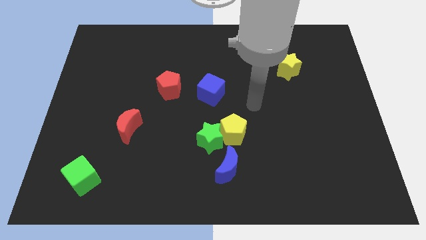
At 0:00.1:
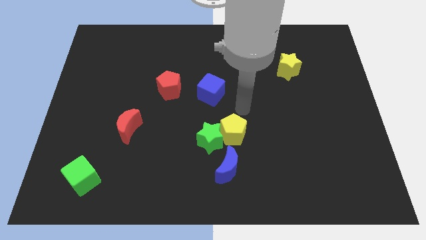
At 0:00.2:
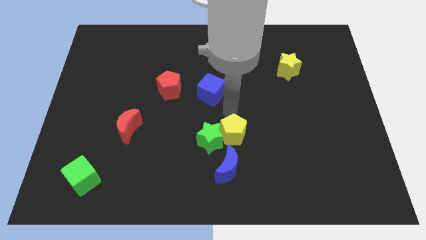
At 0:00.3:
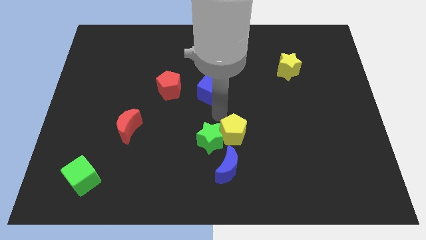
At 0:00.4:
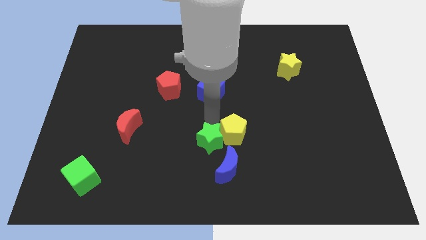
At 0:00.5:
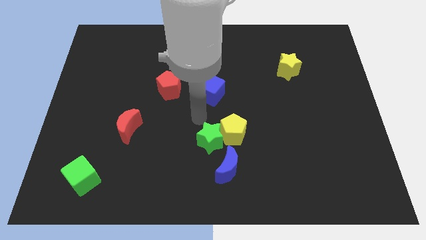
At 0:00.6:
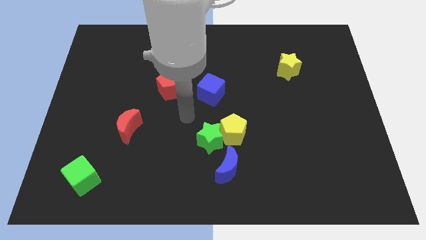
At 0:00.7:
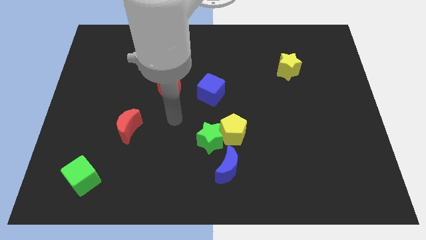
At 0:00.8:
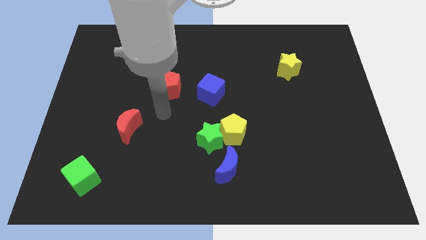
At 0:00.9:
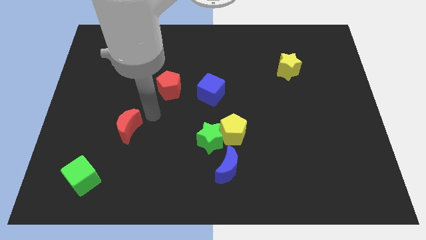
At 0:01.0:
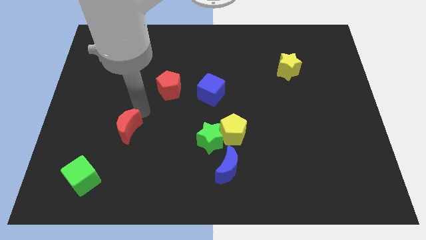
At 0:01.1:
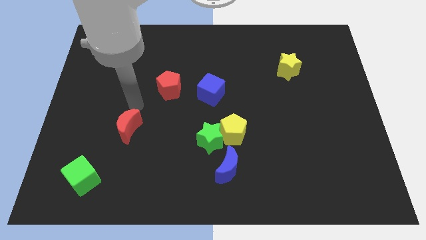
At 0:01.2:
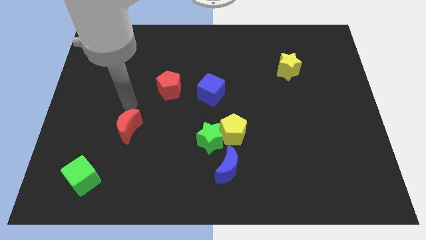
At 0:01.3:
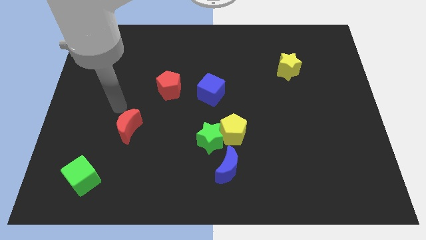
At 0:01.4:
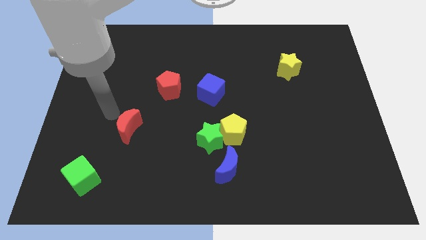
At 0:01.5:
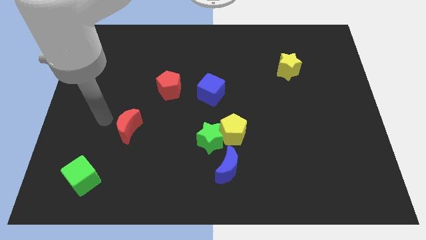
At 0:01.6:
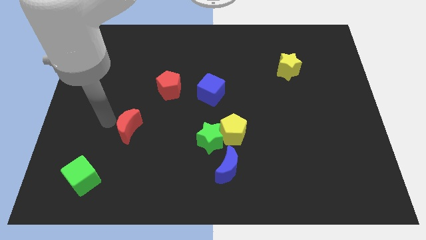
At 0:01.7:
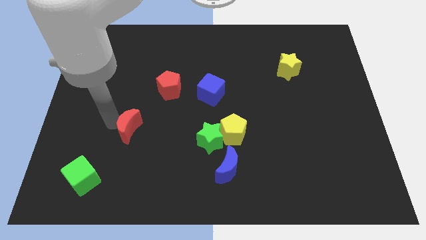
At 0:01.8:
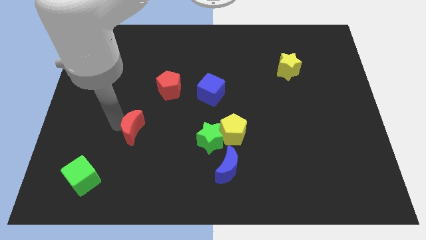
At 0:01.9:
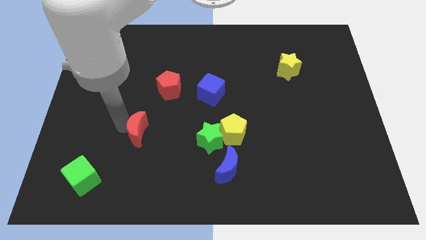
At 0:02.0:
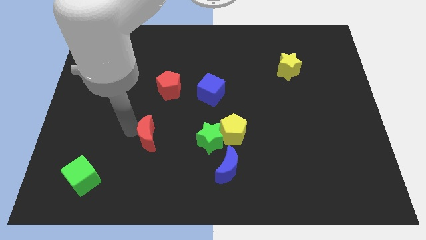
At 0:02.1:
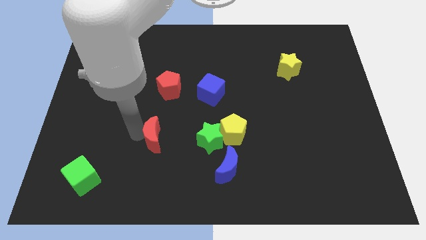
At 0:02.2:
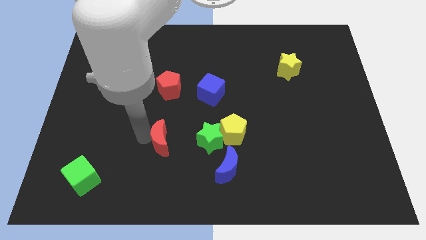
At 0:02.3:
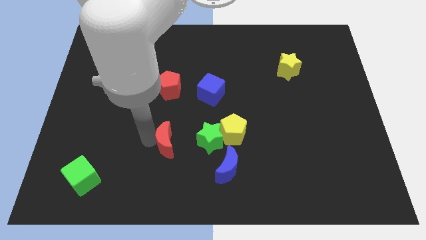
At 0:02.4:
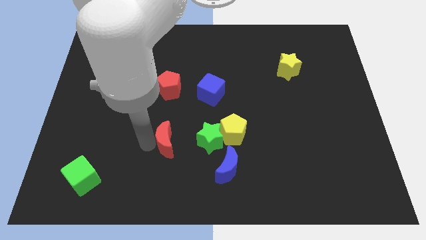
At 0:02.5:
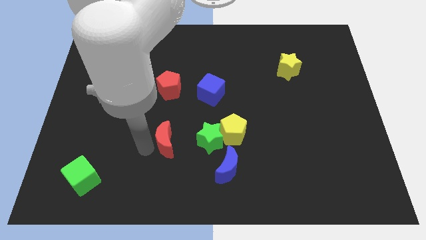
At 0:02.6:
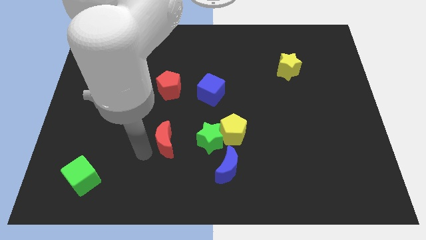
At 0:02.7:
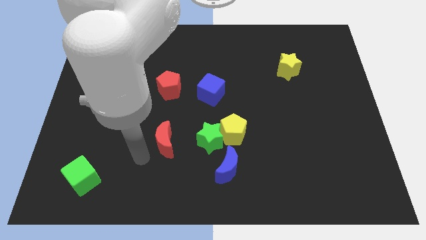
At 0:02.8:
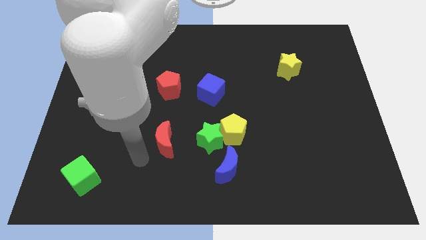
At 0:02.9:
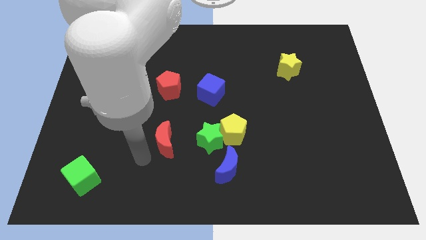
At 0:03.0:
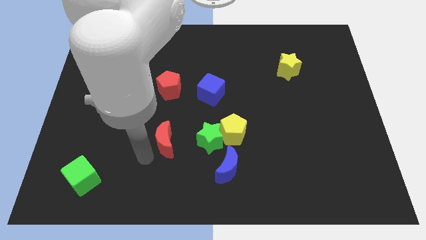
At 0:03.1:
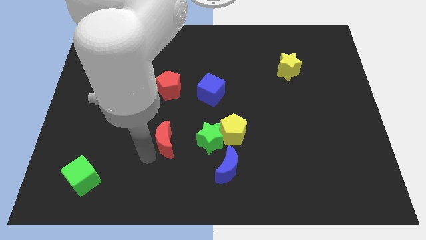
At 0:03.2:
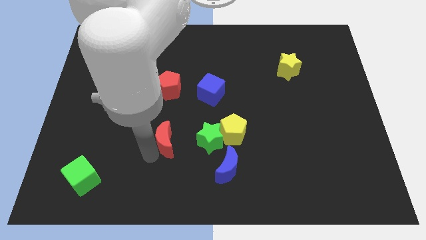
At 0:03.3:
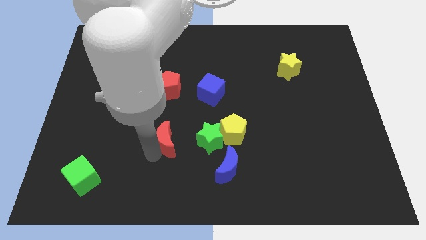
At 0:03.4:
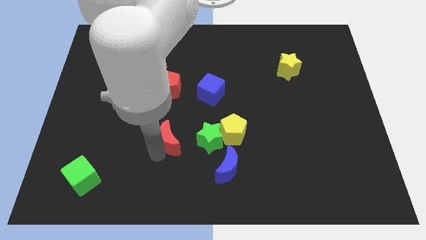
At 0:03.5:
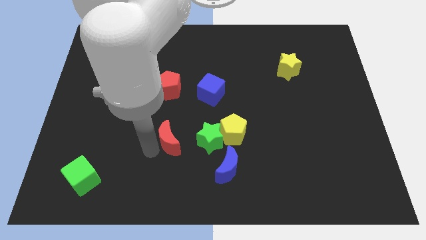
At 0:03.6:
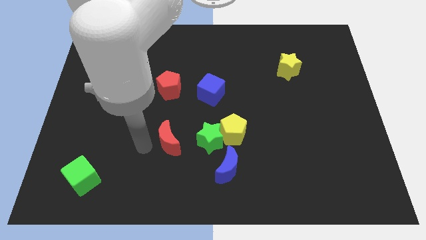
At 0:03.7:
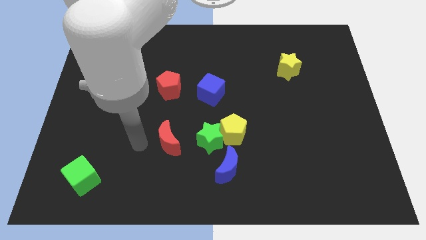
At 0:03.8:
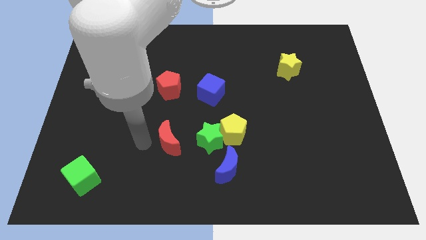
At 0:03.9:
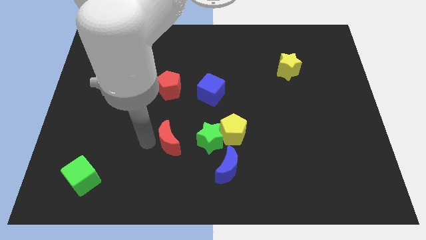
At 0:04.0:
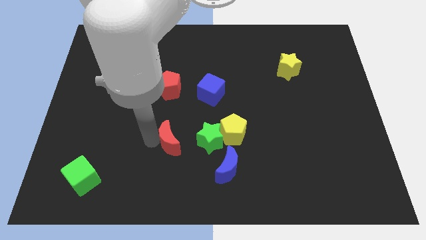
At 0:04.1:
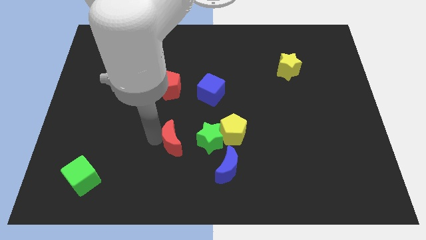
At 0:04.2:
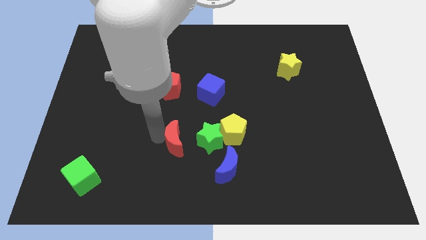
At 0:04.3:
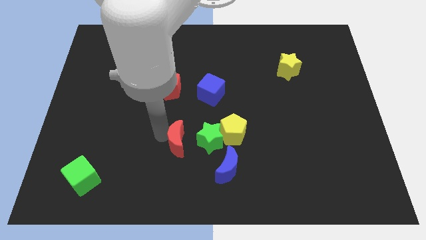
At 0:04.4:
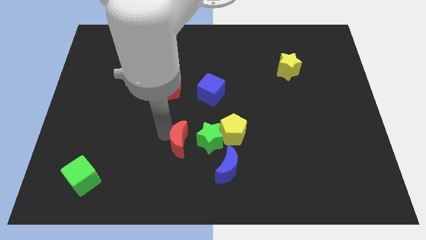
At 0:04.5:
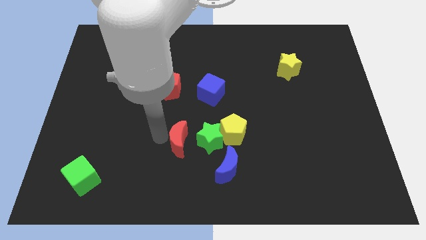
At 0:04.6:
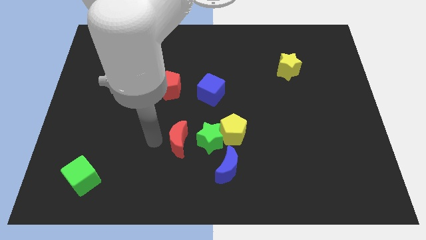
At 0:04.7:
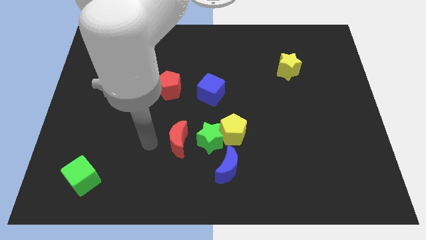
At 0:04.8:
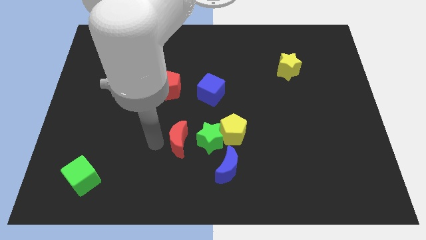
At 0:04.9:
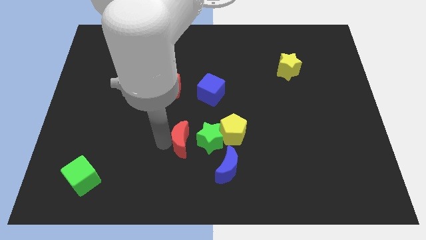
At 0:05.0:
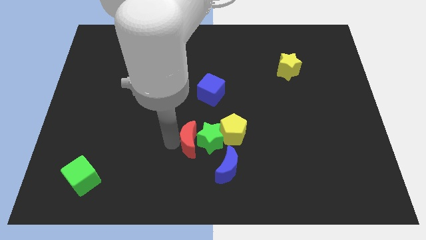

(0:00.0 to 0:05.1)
move the red moon close to the green star

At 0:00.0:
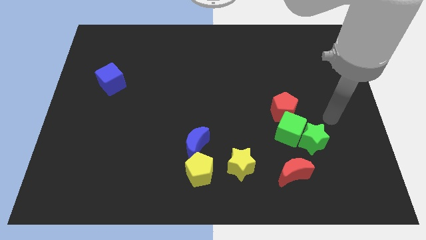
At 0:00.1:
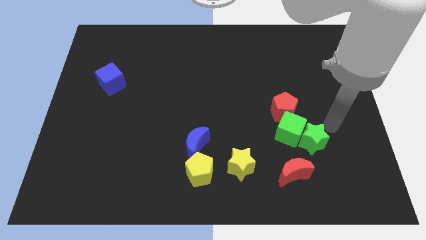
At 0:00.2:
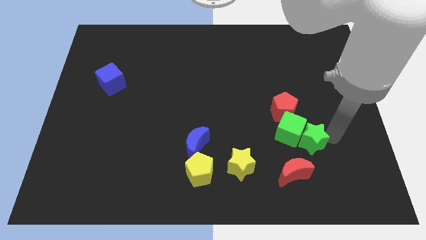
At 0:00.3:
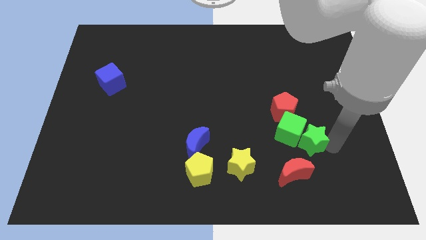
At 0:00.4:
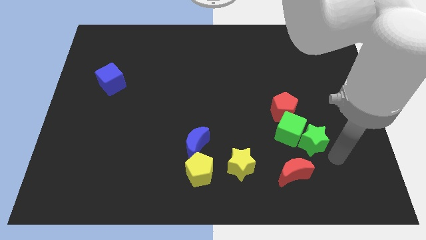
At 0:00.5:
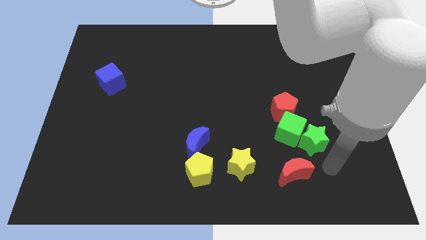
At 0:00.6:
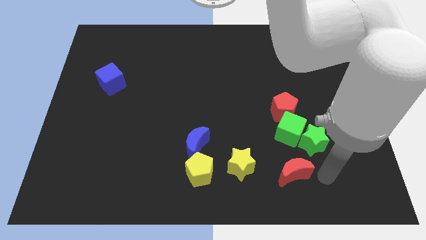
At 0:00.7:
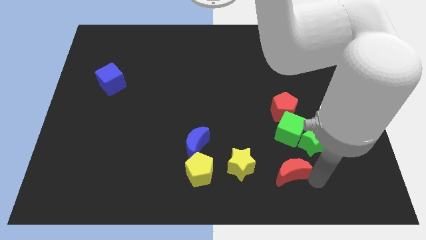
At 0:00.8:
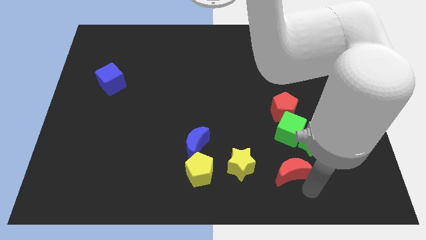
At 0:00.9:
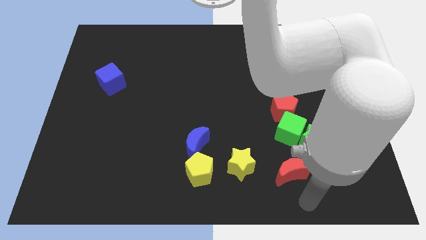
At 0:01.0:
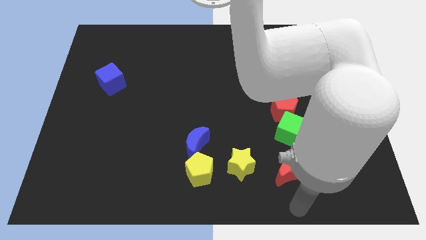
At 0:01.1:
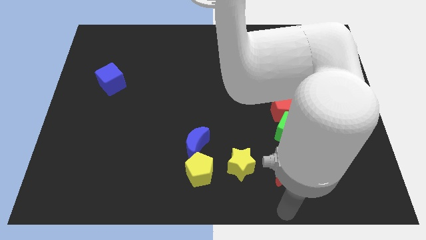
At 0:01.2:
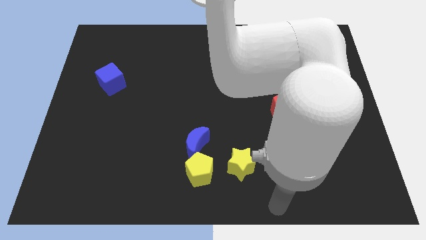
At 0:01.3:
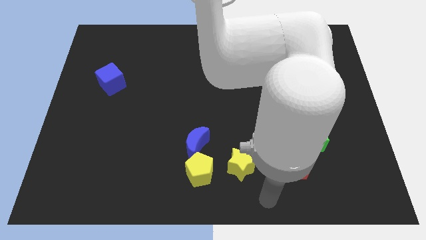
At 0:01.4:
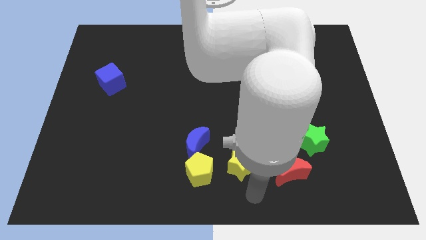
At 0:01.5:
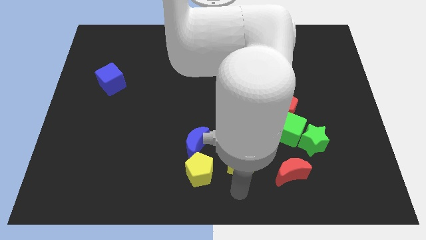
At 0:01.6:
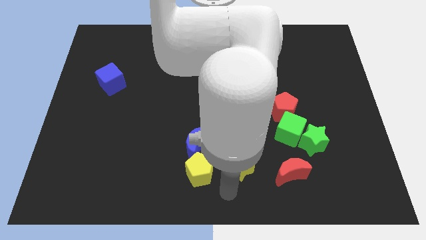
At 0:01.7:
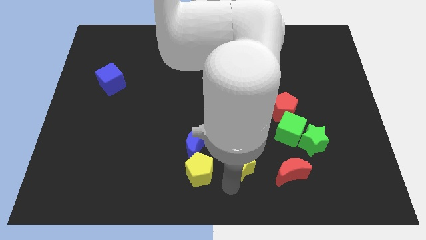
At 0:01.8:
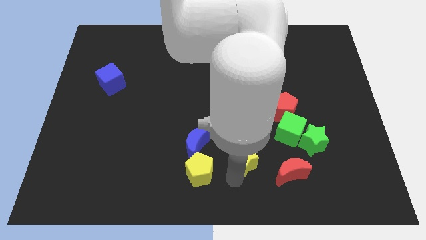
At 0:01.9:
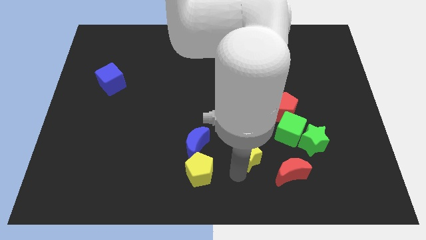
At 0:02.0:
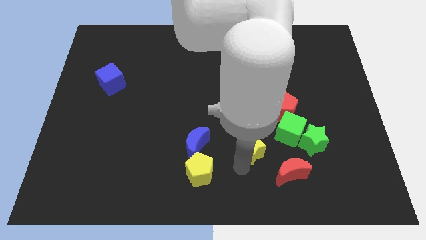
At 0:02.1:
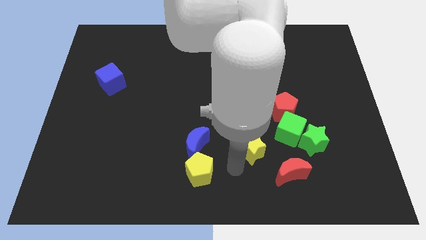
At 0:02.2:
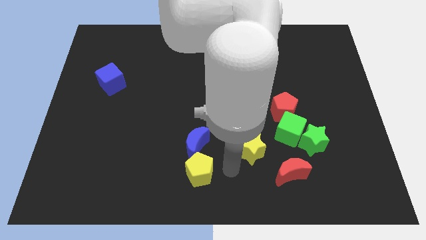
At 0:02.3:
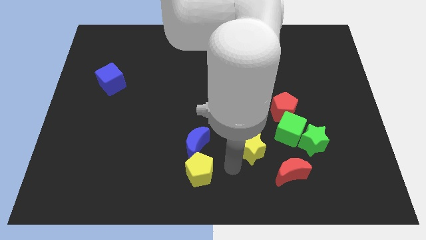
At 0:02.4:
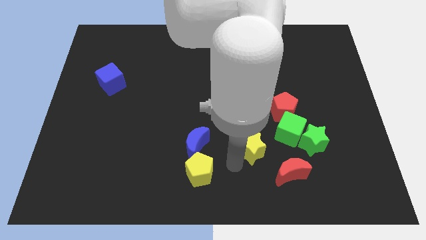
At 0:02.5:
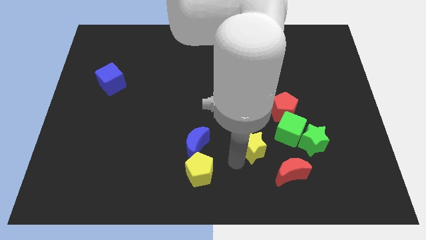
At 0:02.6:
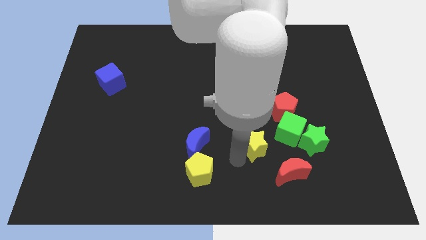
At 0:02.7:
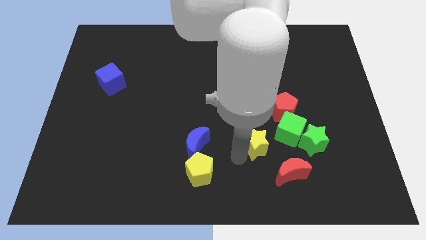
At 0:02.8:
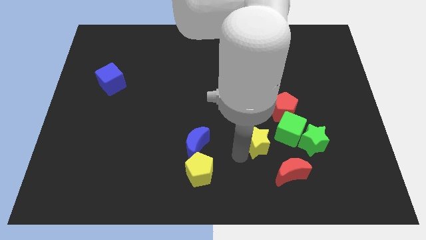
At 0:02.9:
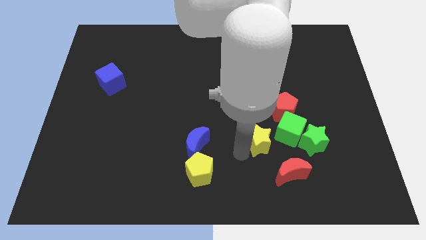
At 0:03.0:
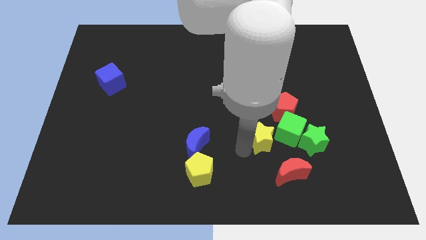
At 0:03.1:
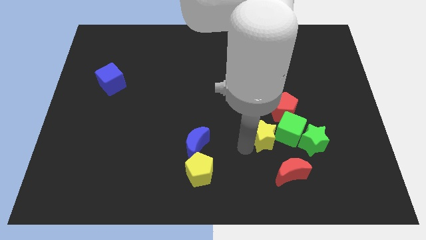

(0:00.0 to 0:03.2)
move the yellow star towards the green cube
